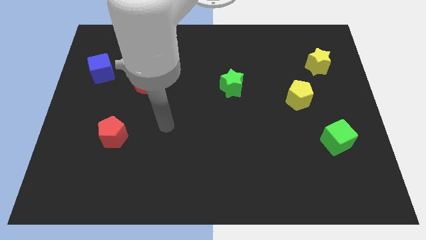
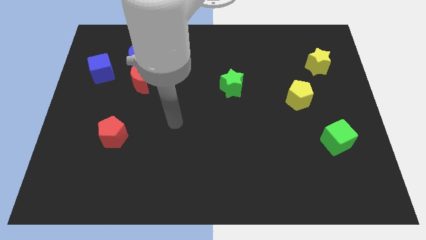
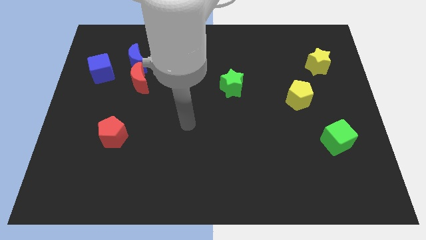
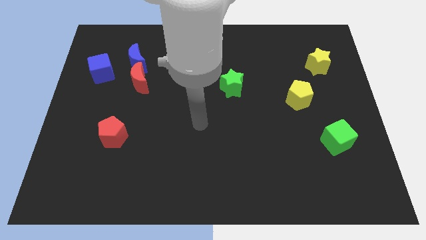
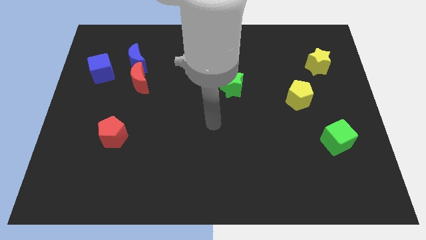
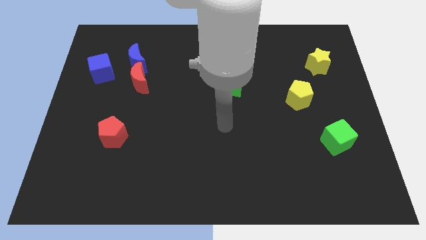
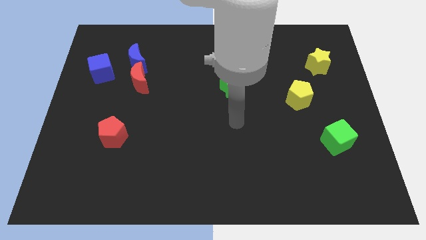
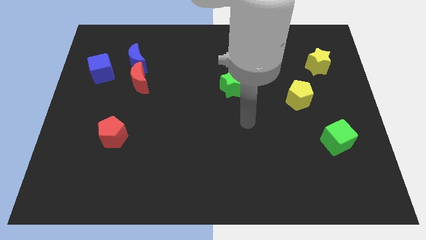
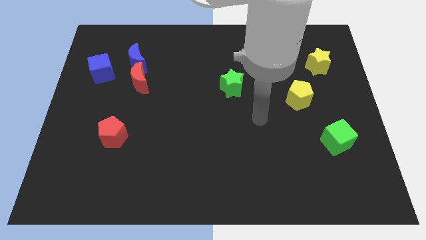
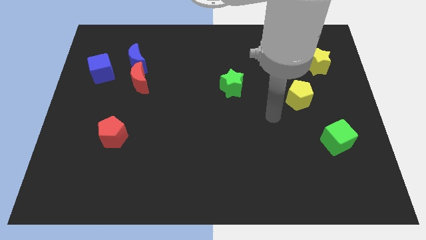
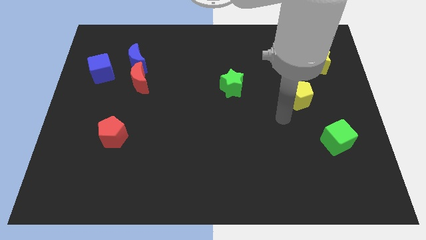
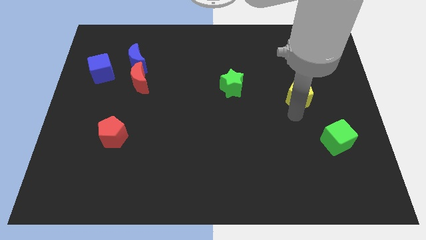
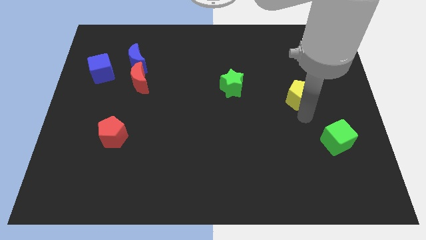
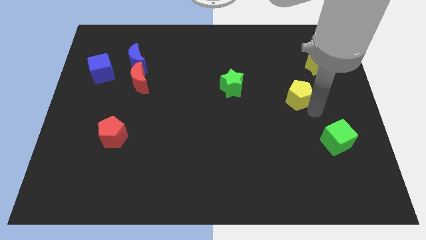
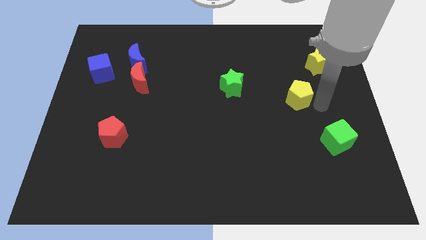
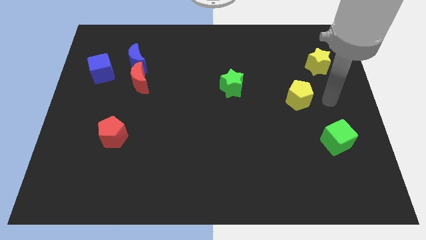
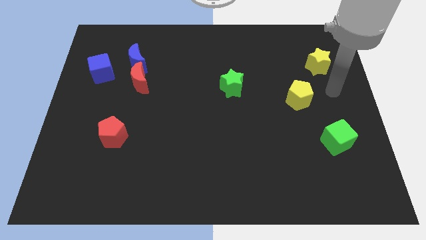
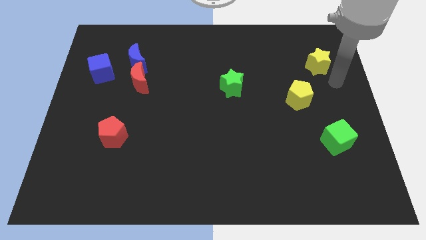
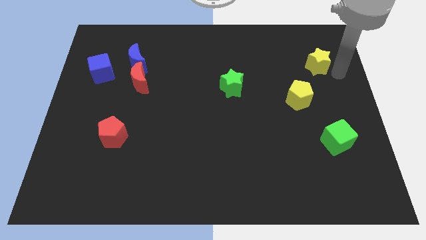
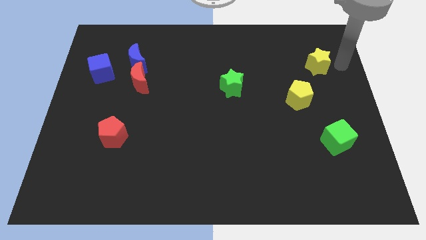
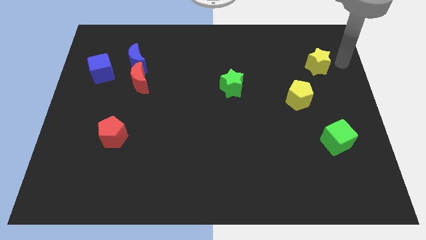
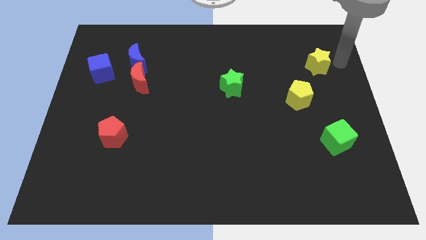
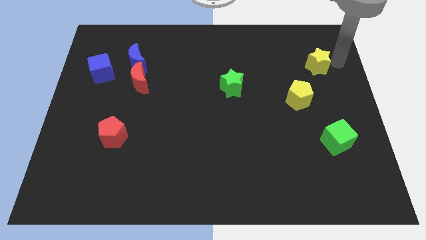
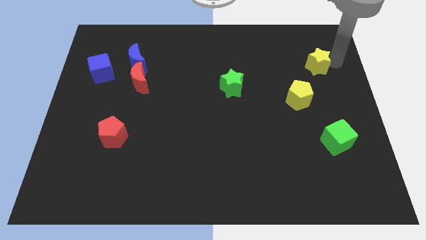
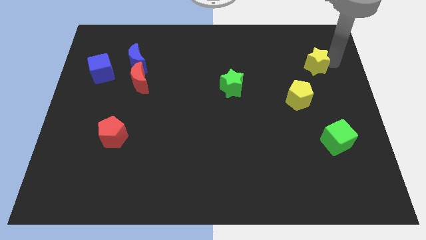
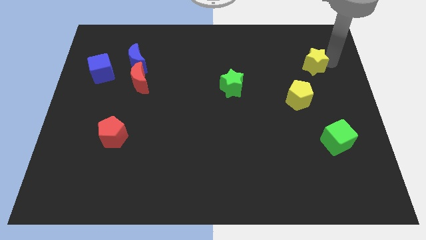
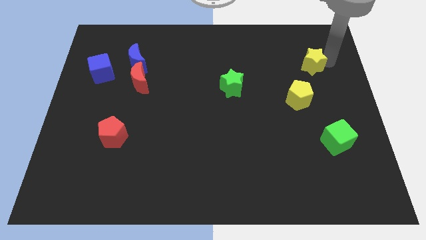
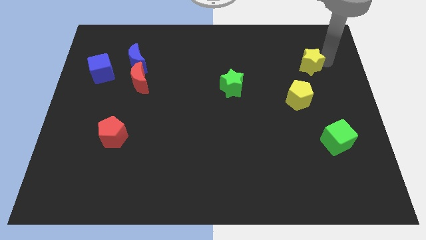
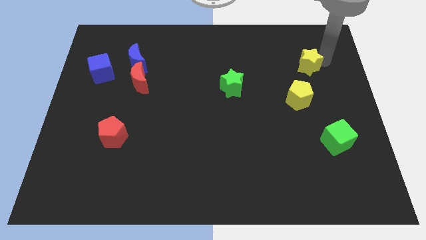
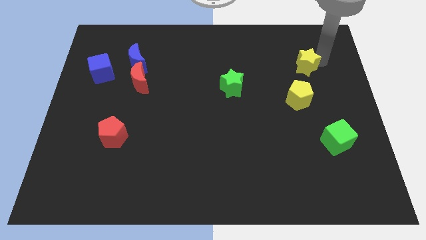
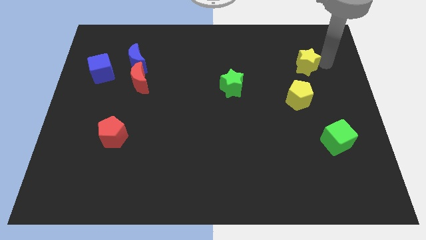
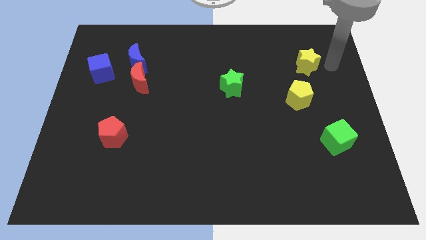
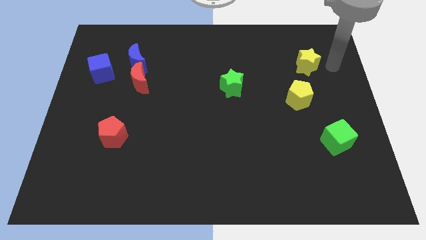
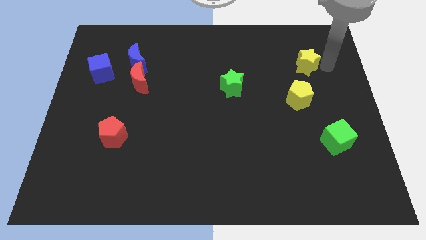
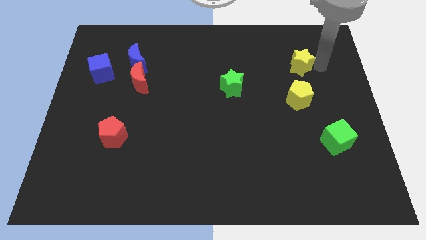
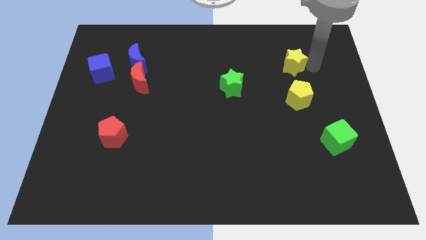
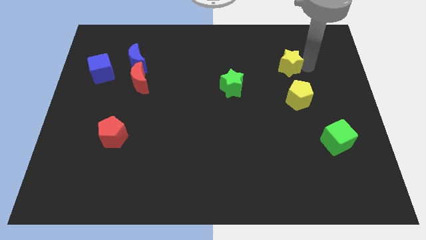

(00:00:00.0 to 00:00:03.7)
slide the yellow star a little bit to the left

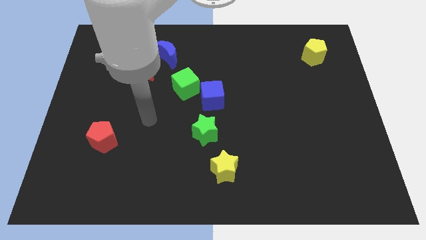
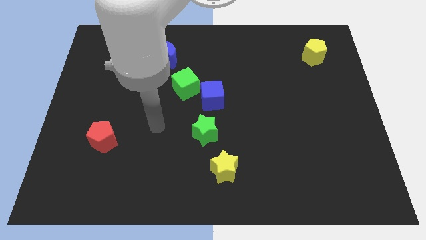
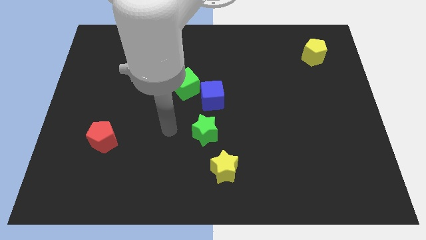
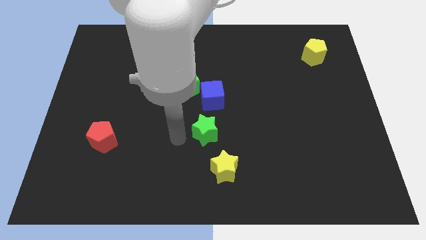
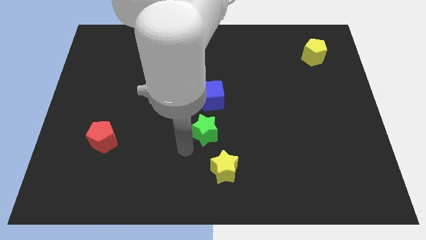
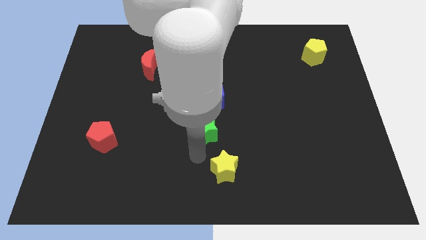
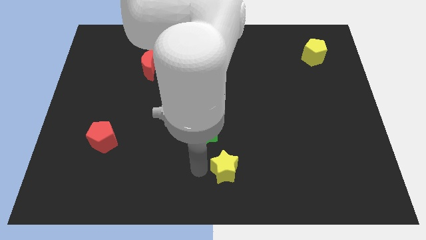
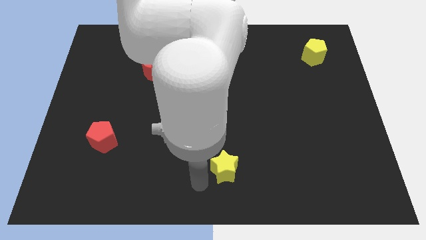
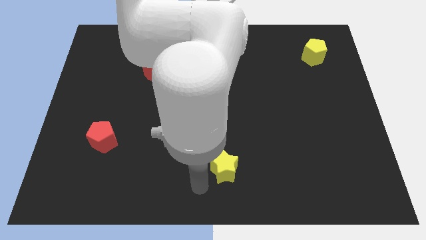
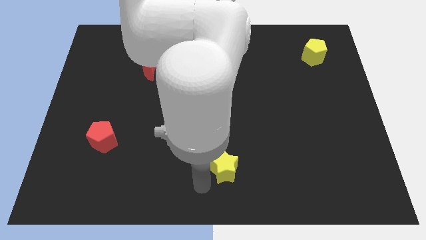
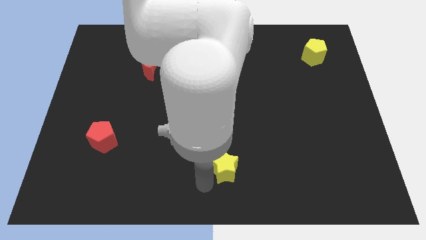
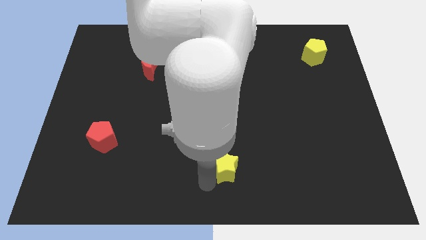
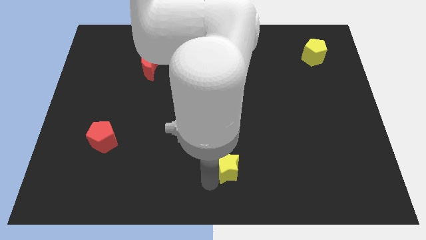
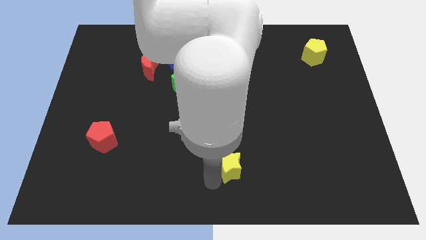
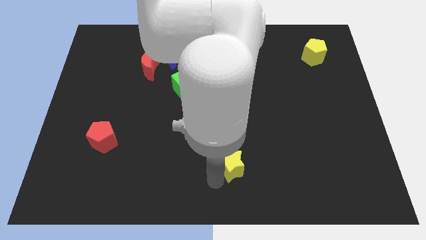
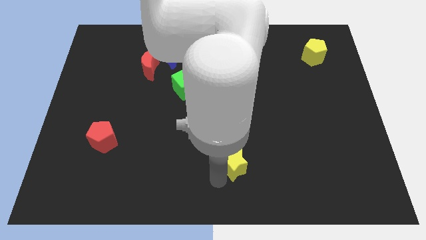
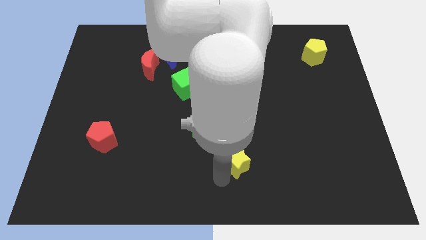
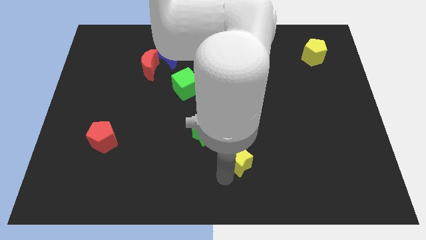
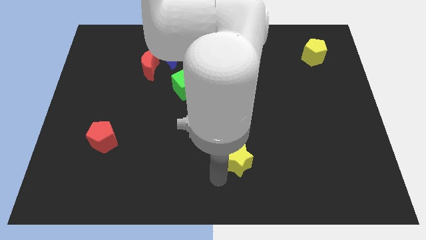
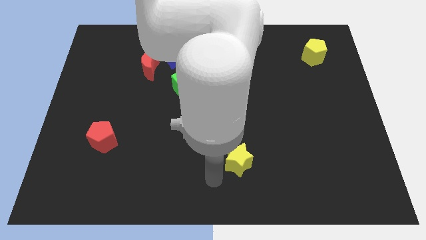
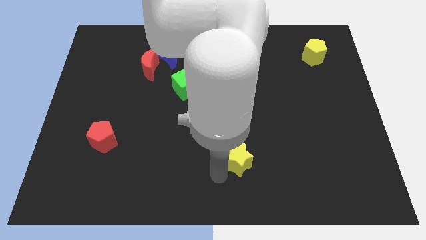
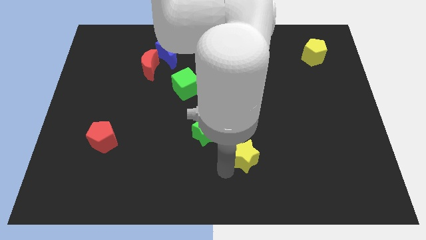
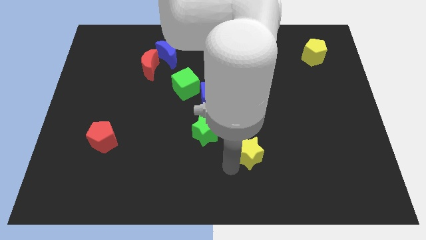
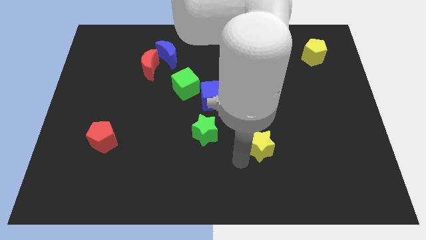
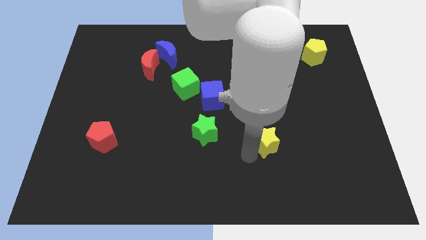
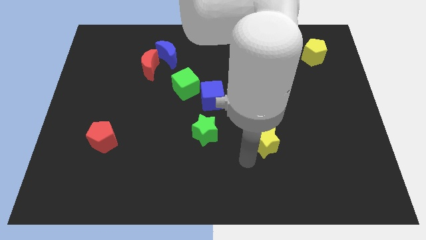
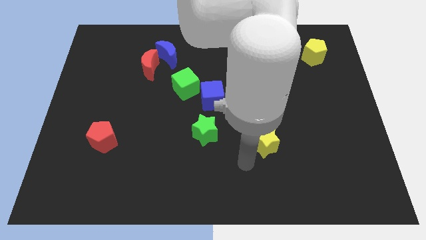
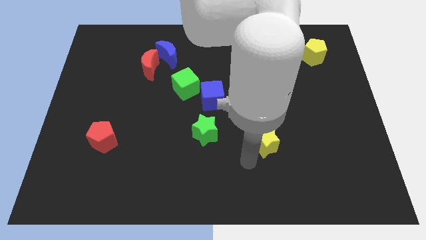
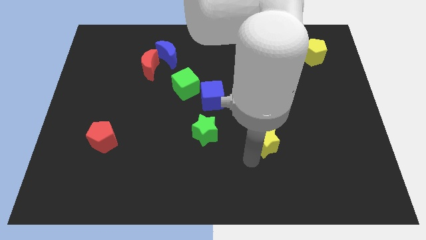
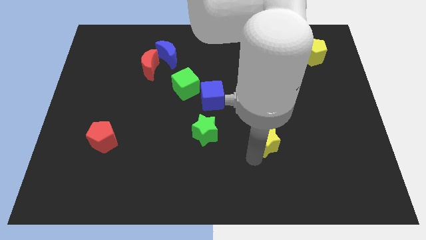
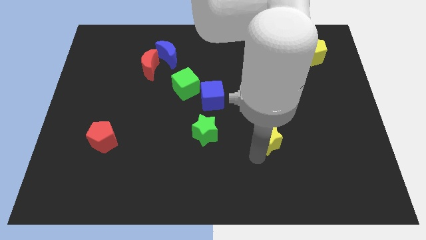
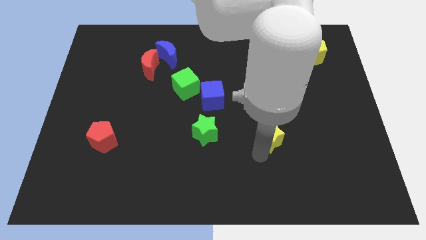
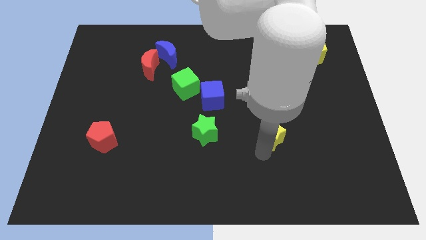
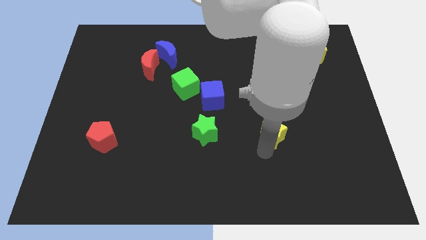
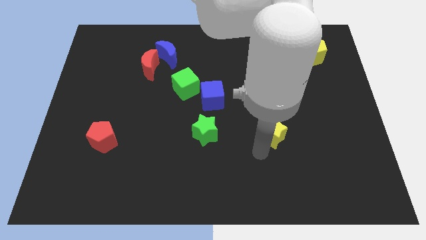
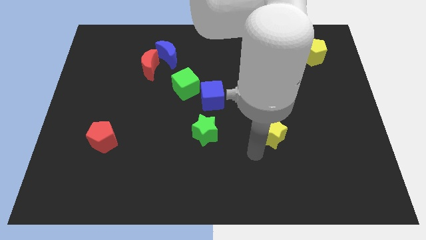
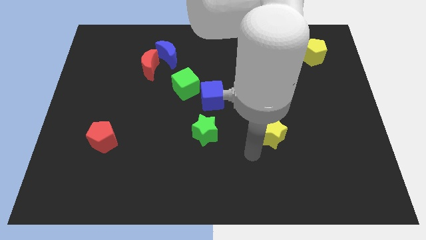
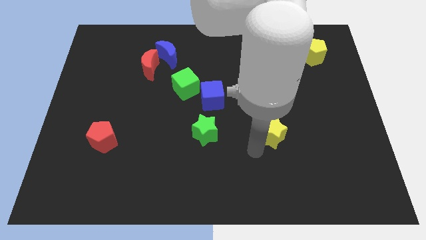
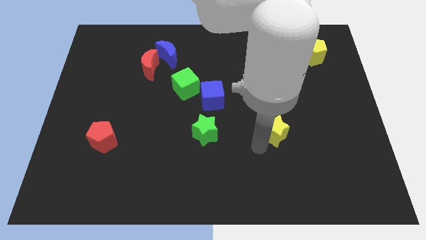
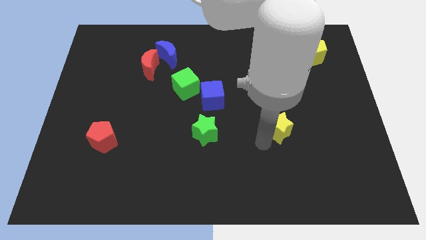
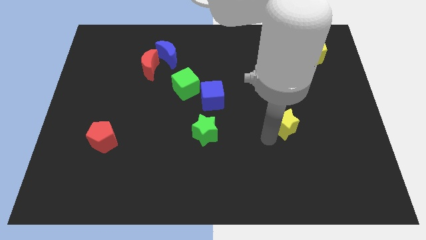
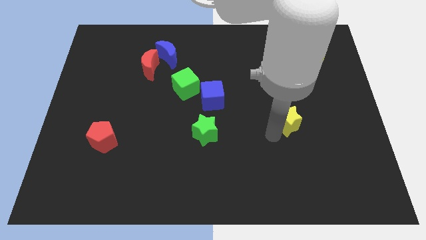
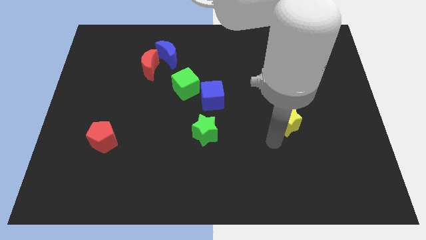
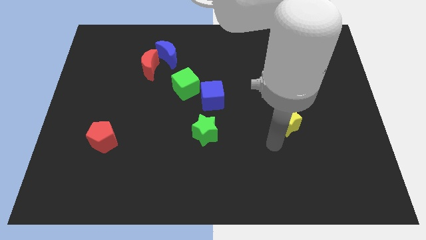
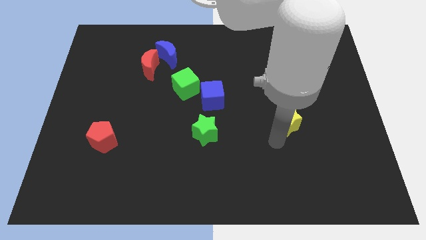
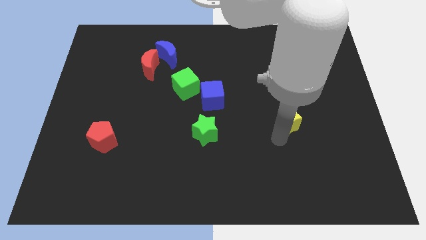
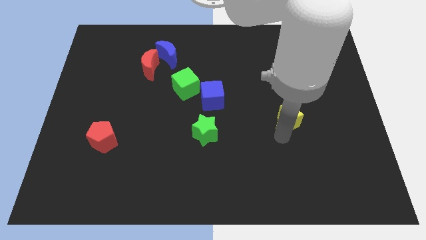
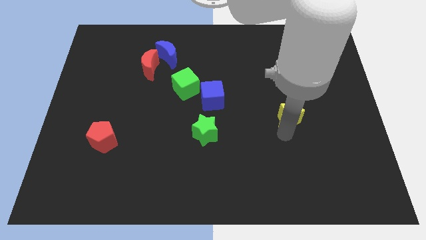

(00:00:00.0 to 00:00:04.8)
move the yellow star upwards and to the right
